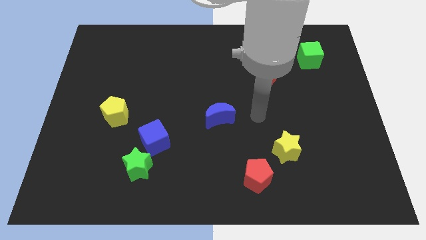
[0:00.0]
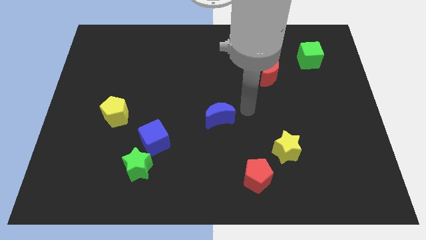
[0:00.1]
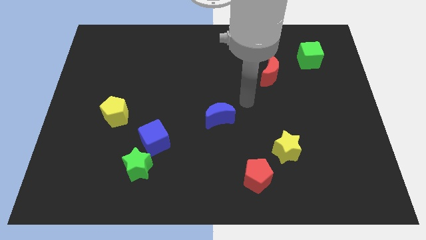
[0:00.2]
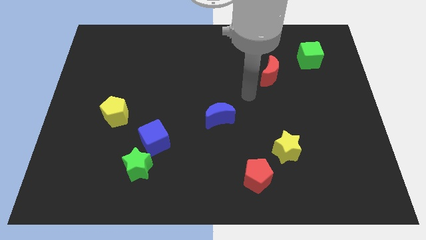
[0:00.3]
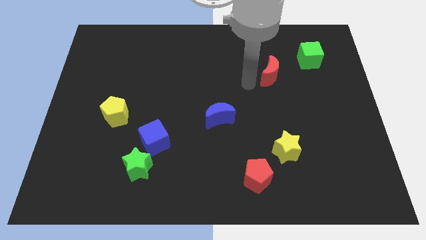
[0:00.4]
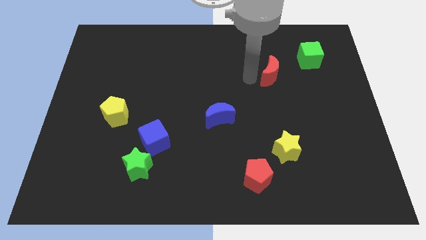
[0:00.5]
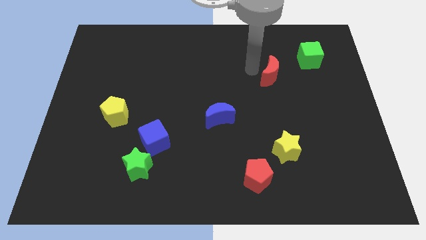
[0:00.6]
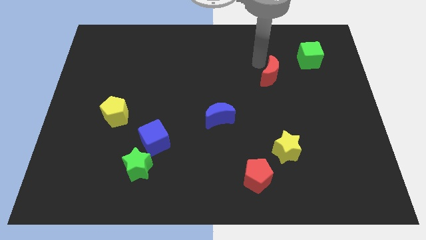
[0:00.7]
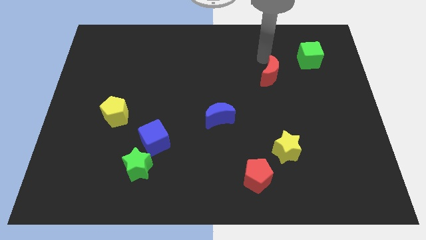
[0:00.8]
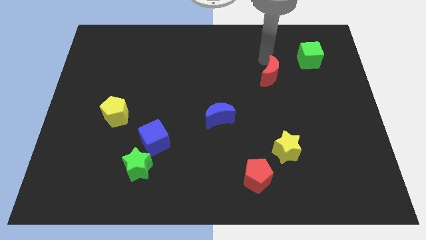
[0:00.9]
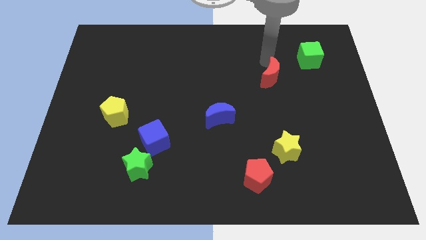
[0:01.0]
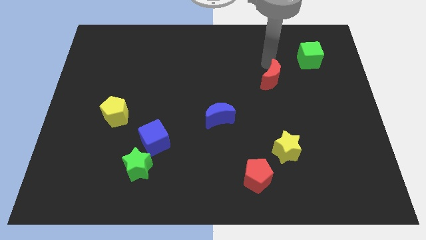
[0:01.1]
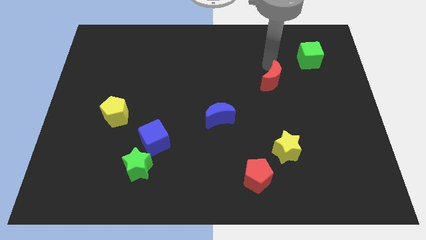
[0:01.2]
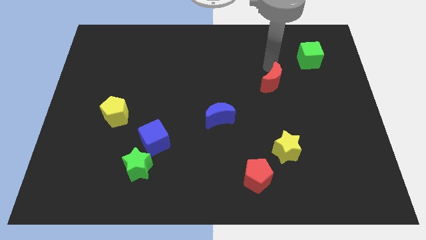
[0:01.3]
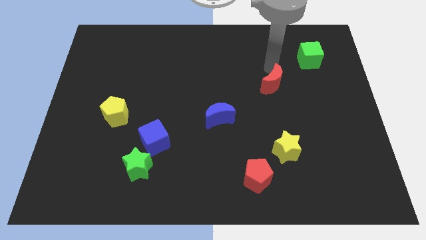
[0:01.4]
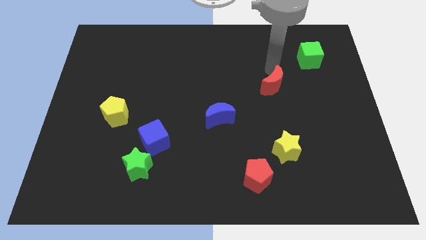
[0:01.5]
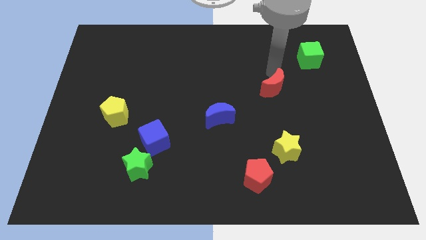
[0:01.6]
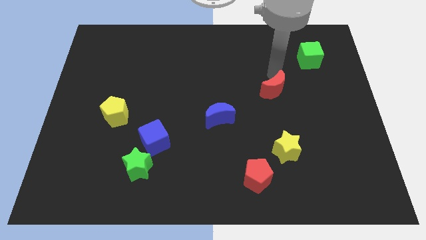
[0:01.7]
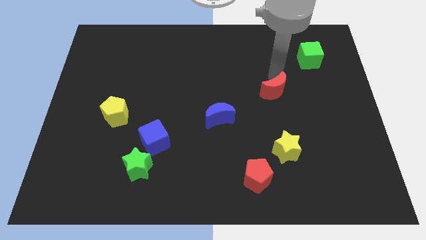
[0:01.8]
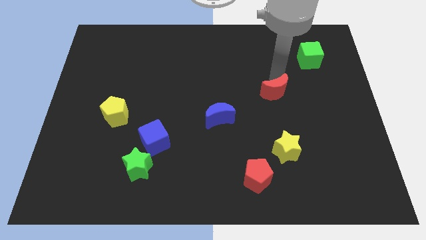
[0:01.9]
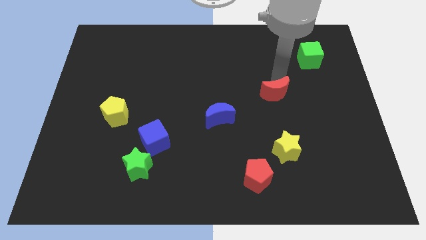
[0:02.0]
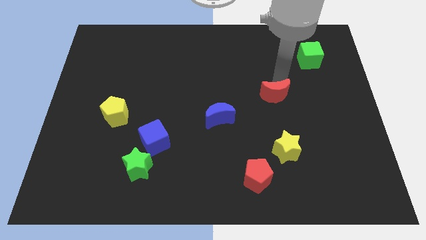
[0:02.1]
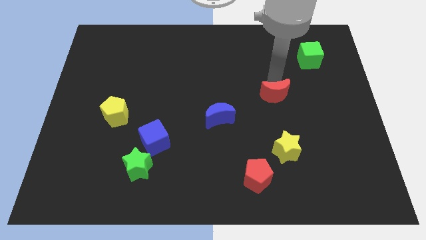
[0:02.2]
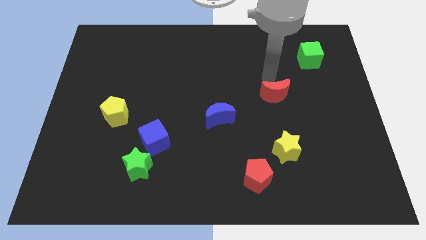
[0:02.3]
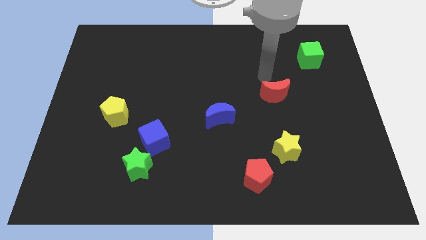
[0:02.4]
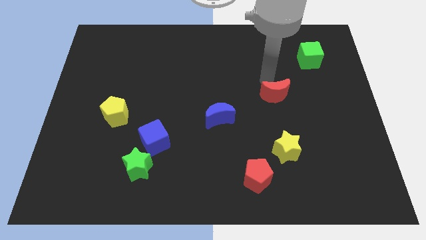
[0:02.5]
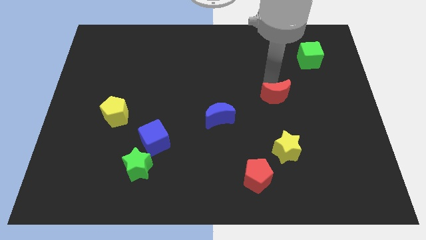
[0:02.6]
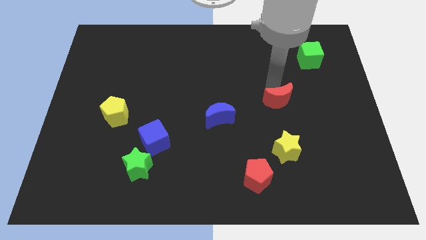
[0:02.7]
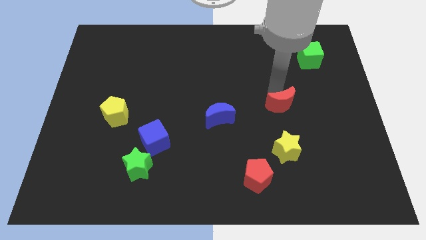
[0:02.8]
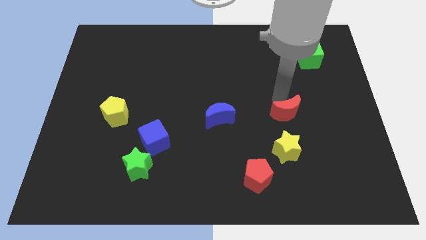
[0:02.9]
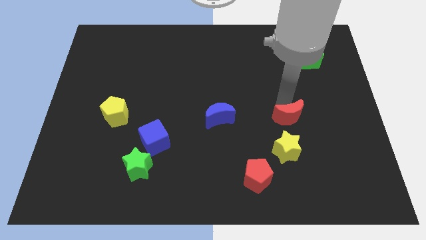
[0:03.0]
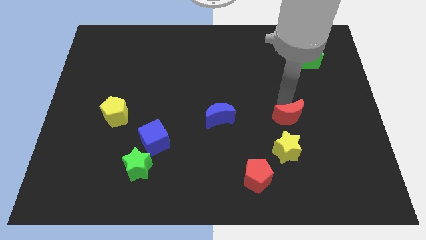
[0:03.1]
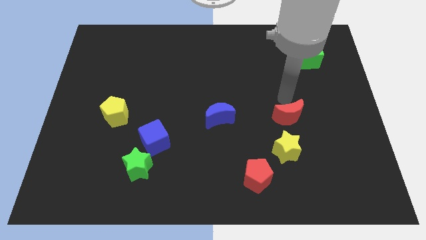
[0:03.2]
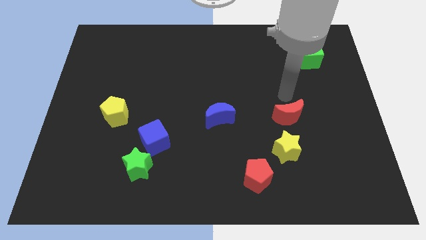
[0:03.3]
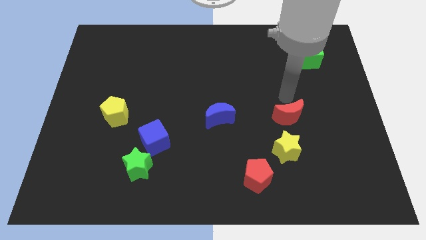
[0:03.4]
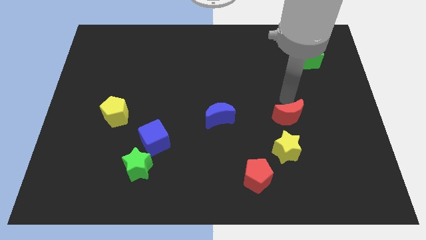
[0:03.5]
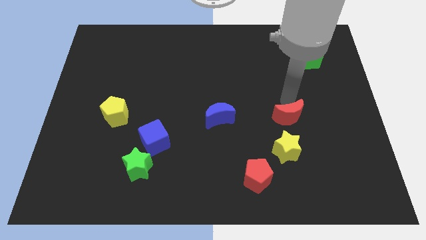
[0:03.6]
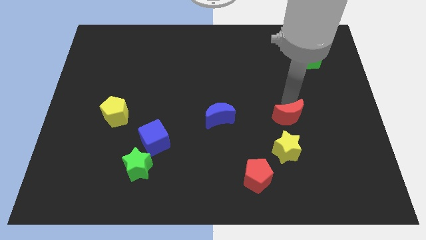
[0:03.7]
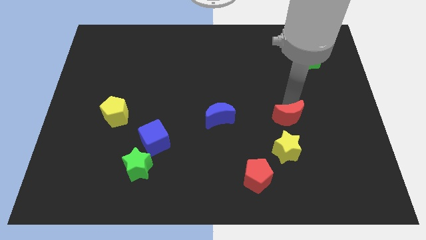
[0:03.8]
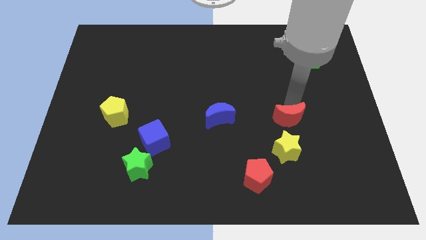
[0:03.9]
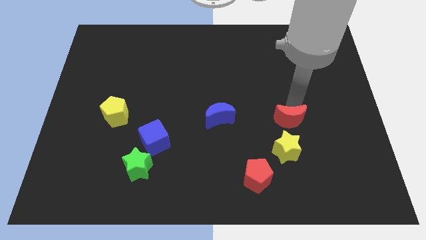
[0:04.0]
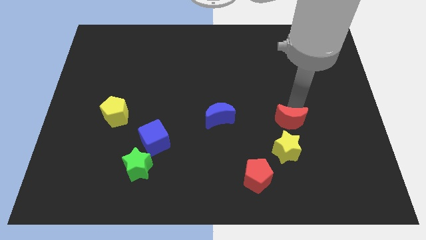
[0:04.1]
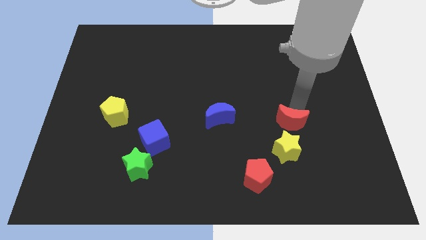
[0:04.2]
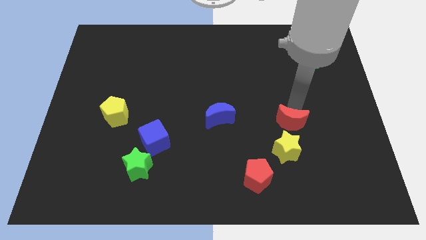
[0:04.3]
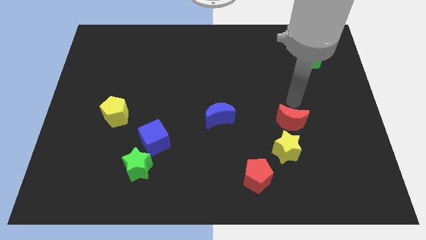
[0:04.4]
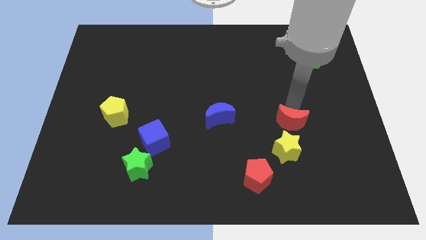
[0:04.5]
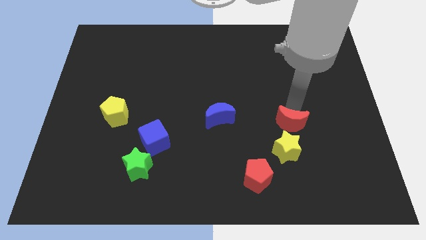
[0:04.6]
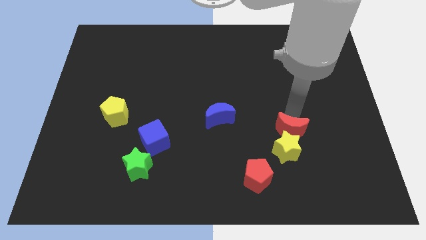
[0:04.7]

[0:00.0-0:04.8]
put the red moon close to the yellow star

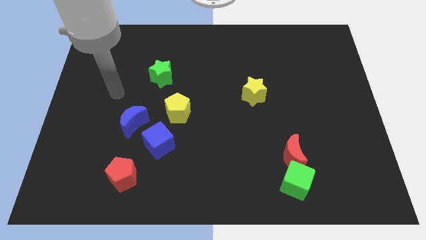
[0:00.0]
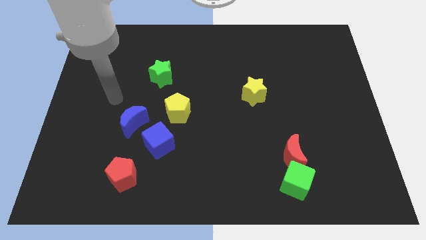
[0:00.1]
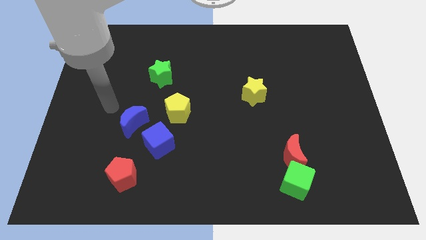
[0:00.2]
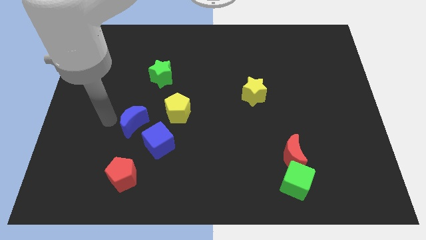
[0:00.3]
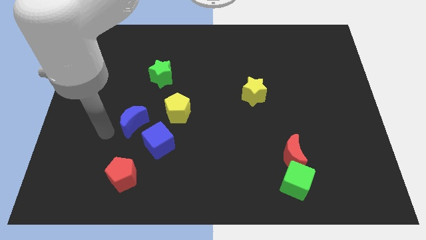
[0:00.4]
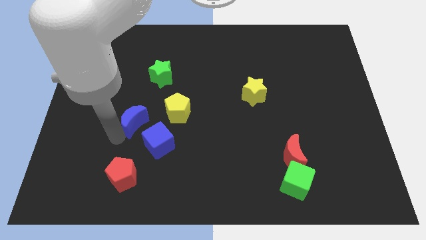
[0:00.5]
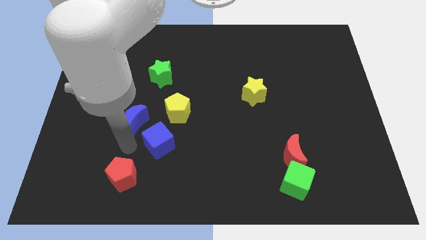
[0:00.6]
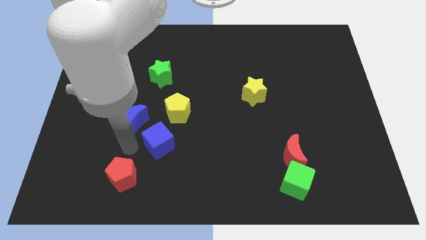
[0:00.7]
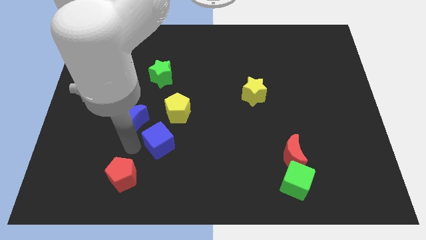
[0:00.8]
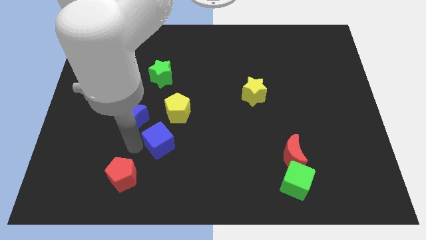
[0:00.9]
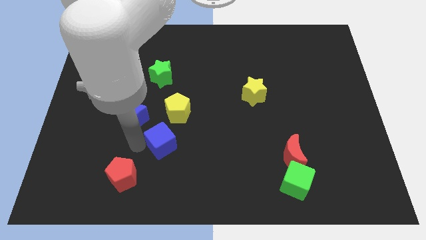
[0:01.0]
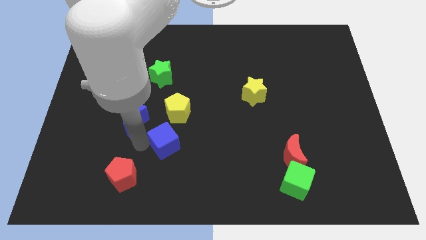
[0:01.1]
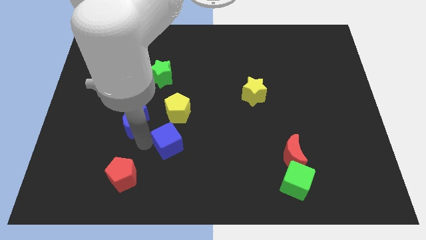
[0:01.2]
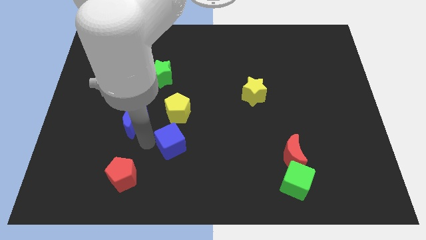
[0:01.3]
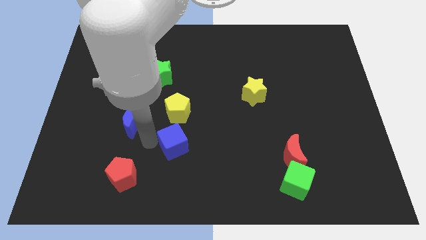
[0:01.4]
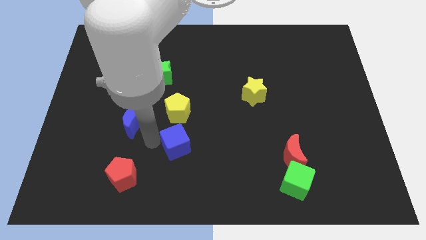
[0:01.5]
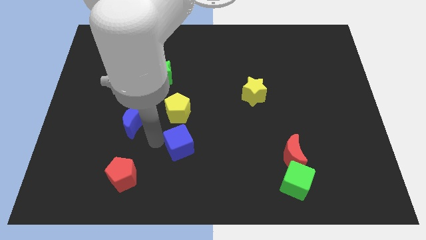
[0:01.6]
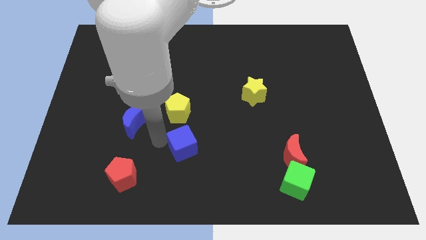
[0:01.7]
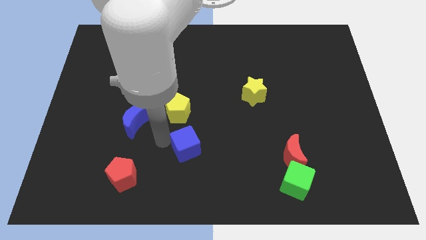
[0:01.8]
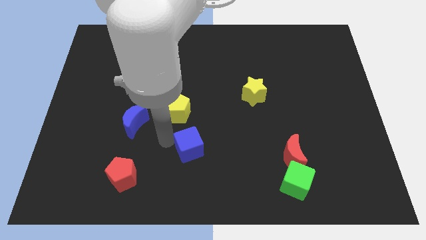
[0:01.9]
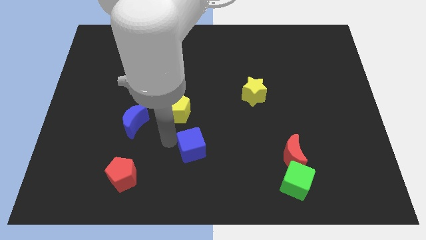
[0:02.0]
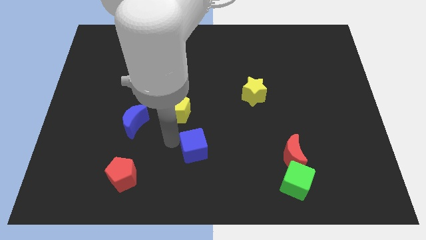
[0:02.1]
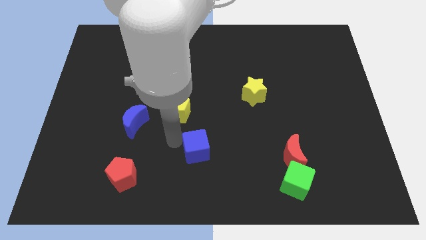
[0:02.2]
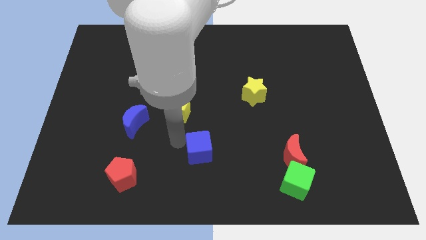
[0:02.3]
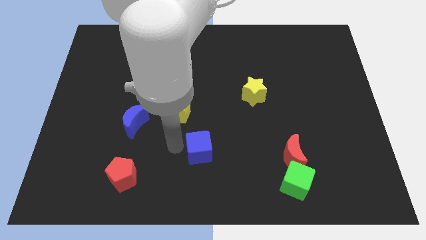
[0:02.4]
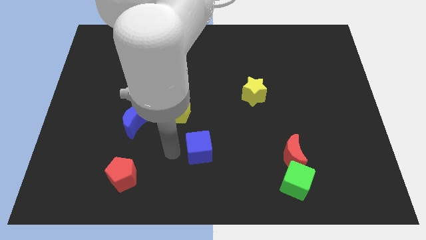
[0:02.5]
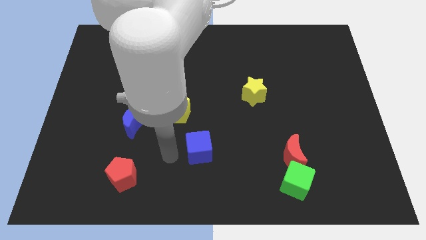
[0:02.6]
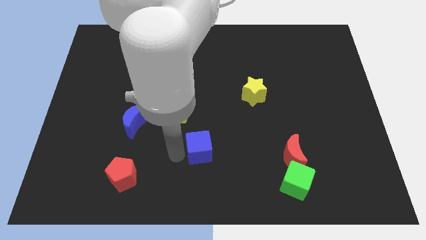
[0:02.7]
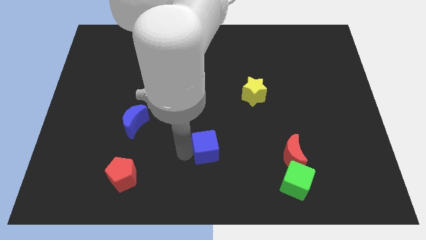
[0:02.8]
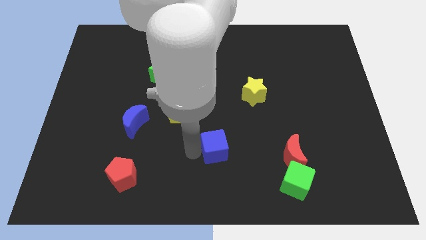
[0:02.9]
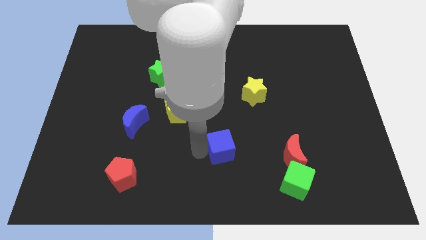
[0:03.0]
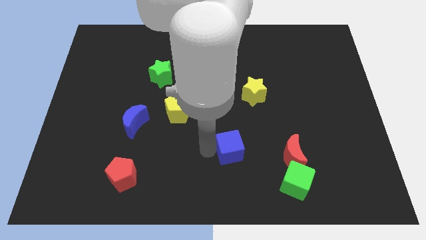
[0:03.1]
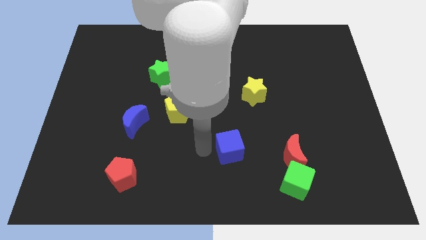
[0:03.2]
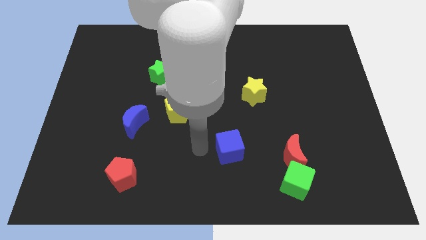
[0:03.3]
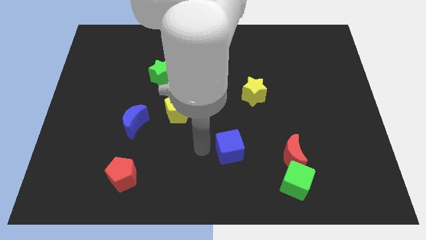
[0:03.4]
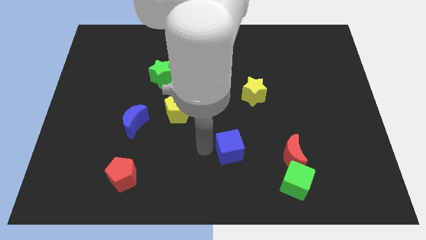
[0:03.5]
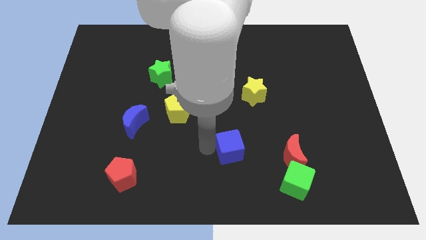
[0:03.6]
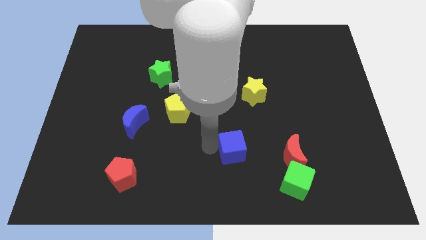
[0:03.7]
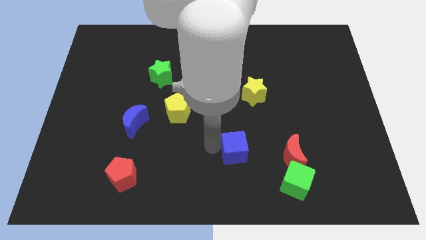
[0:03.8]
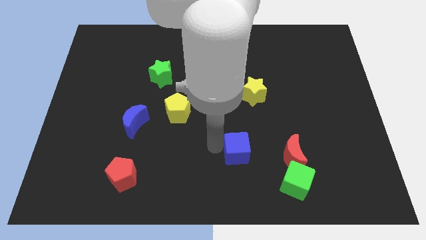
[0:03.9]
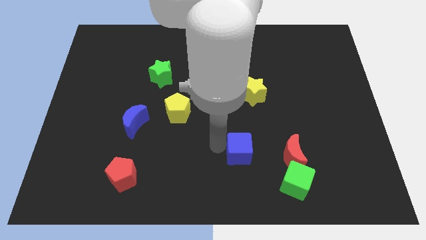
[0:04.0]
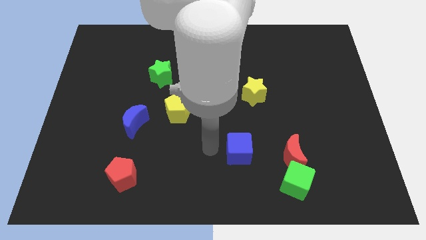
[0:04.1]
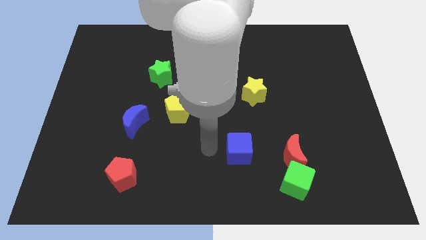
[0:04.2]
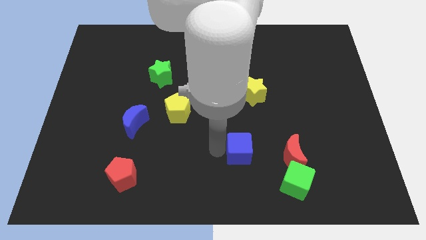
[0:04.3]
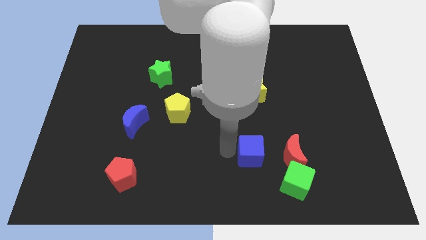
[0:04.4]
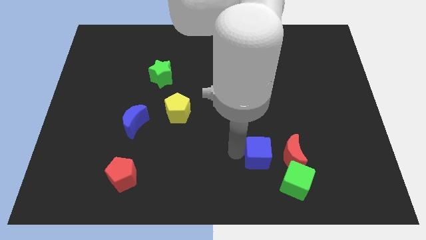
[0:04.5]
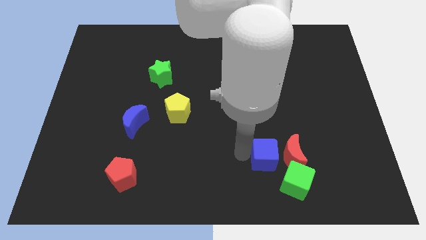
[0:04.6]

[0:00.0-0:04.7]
put the blue cube next to the red moon
